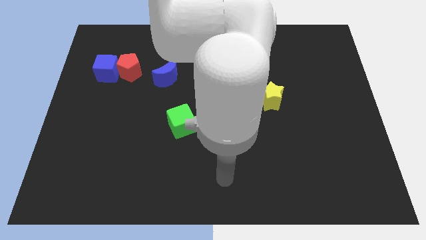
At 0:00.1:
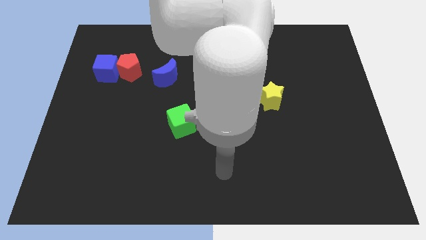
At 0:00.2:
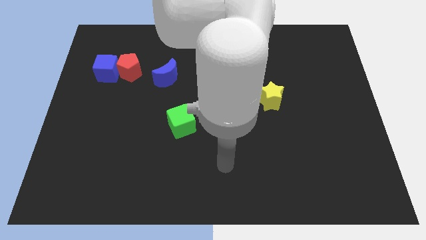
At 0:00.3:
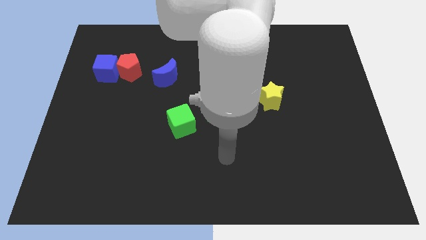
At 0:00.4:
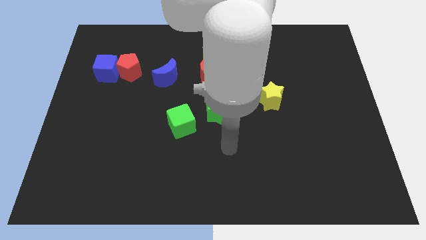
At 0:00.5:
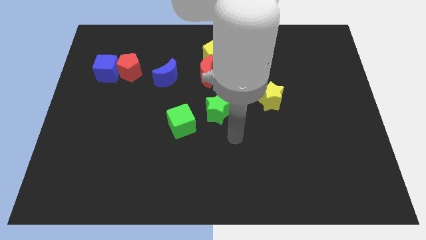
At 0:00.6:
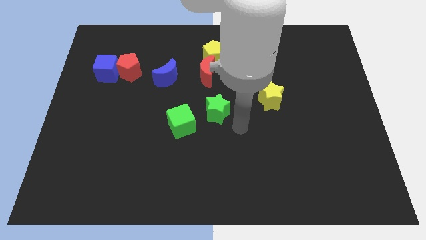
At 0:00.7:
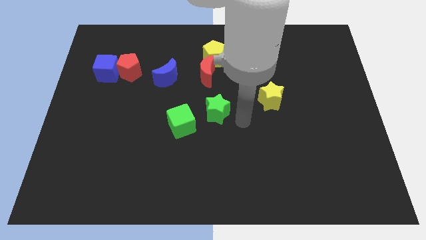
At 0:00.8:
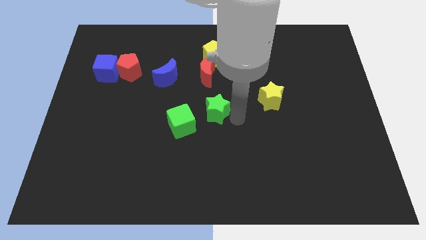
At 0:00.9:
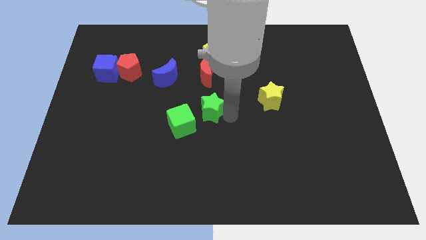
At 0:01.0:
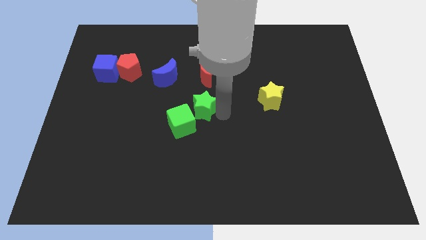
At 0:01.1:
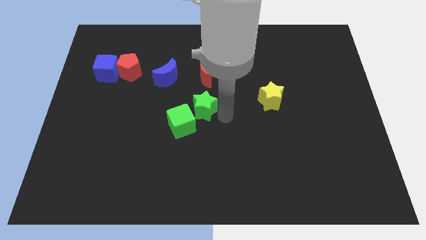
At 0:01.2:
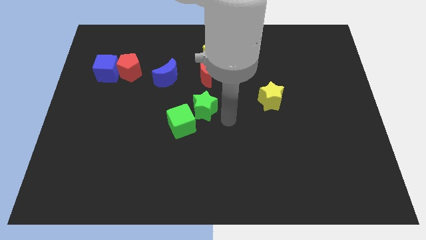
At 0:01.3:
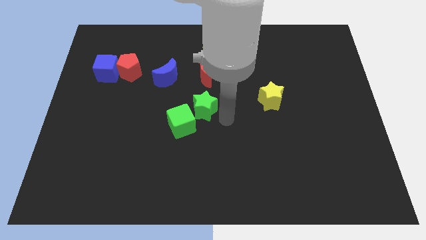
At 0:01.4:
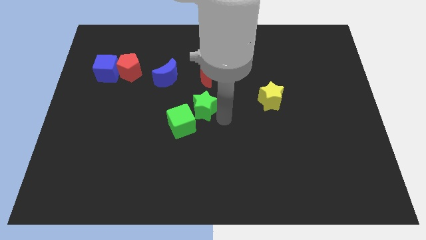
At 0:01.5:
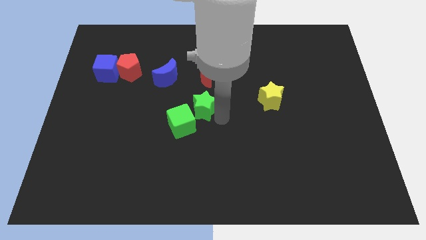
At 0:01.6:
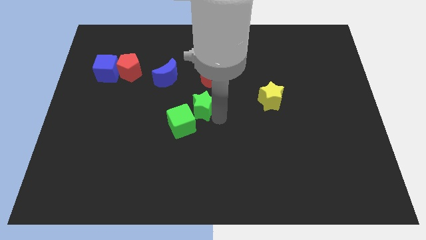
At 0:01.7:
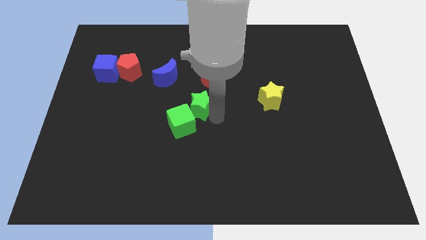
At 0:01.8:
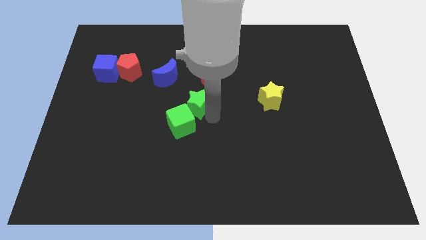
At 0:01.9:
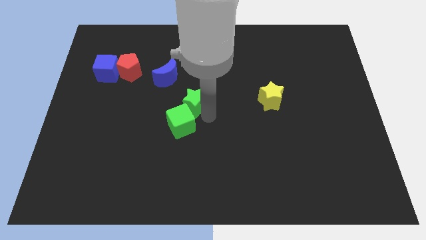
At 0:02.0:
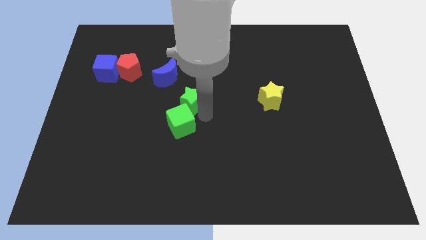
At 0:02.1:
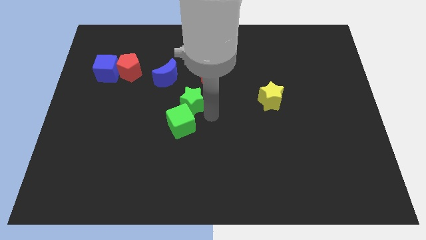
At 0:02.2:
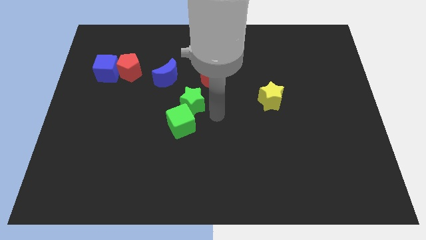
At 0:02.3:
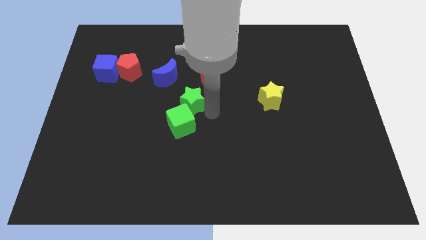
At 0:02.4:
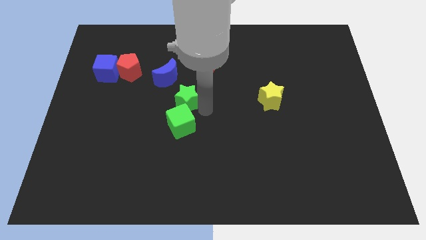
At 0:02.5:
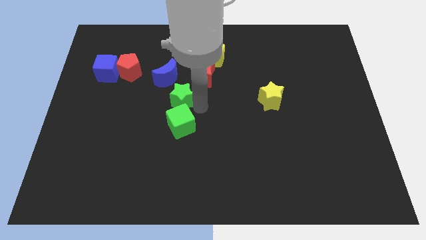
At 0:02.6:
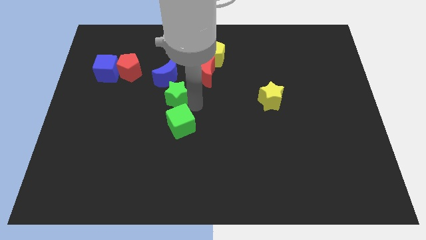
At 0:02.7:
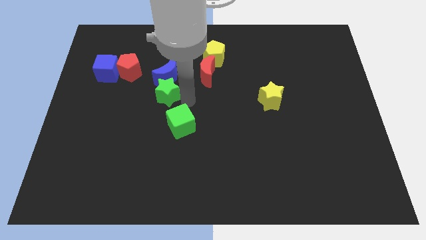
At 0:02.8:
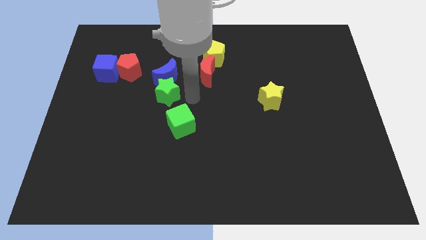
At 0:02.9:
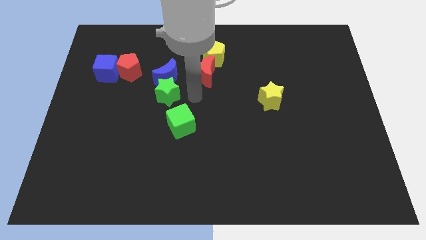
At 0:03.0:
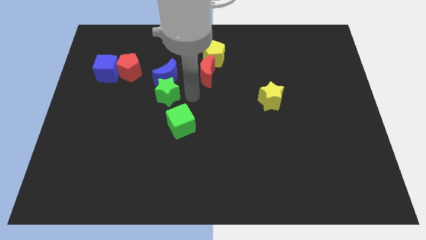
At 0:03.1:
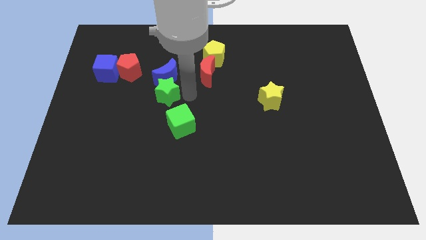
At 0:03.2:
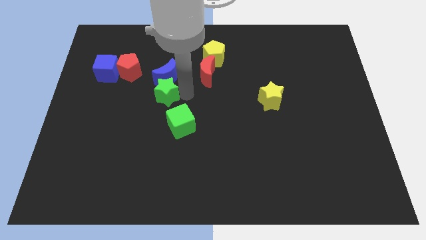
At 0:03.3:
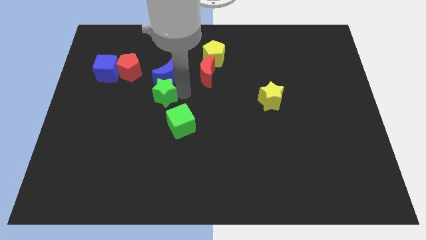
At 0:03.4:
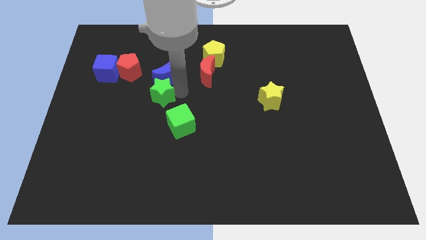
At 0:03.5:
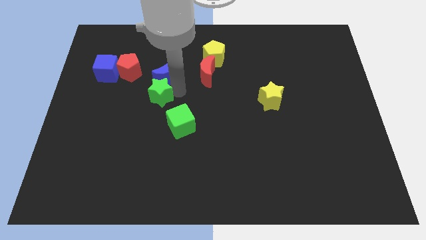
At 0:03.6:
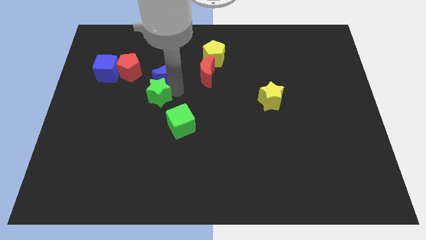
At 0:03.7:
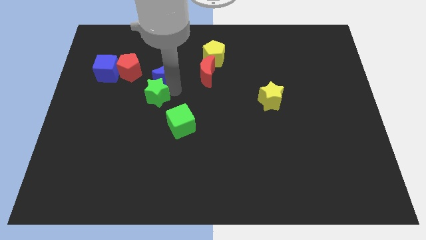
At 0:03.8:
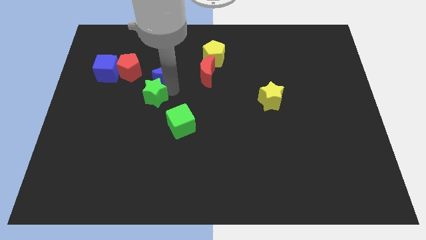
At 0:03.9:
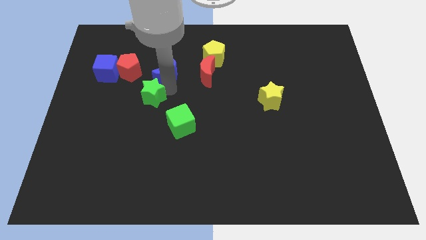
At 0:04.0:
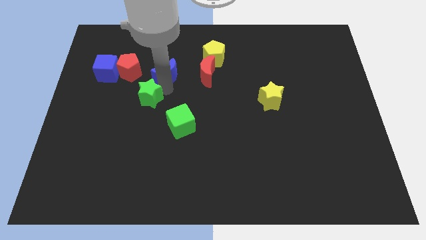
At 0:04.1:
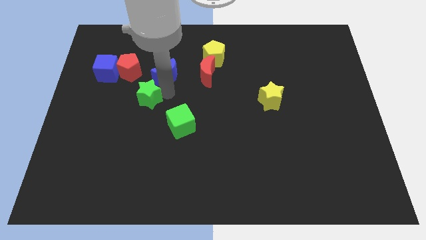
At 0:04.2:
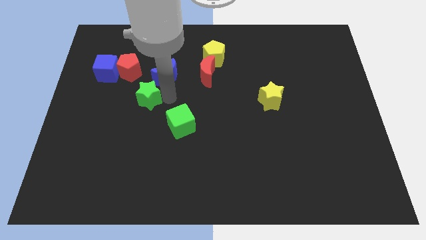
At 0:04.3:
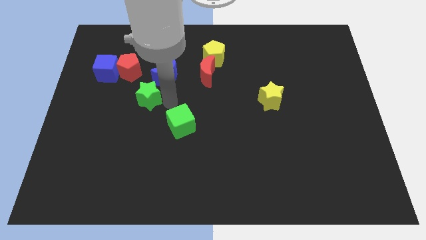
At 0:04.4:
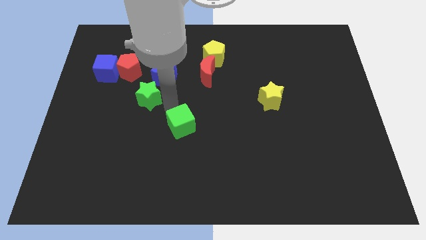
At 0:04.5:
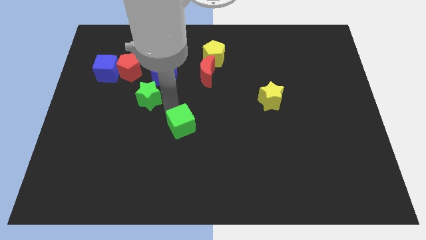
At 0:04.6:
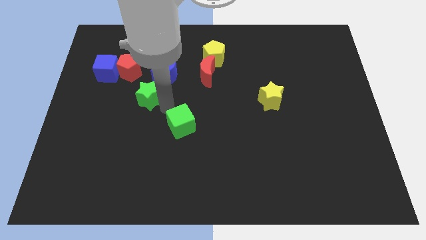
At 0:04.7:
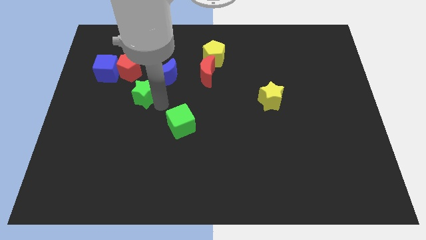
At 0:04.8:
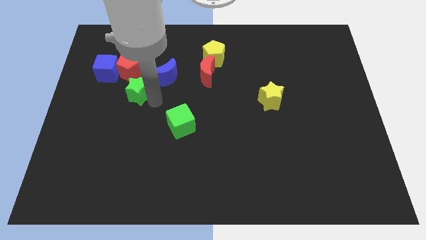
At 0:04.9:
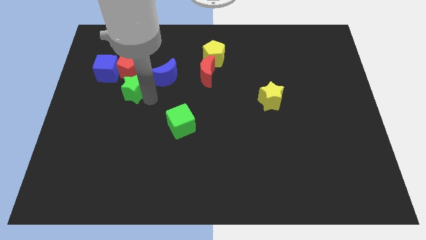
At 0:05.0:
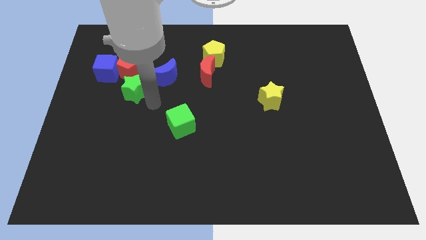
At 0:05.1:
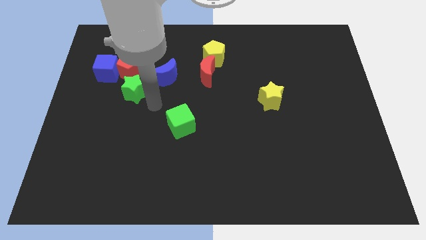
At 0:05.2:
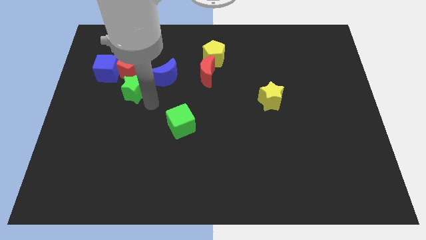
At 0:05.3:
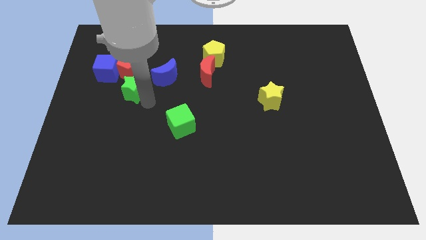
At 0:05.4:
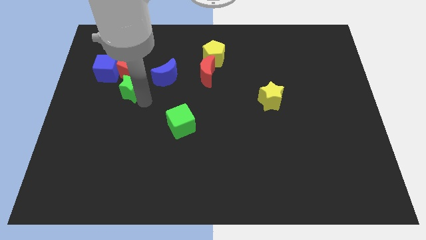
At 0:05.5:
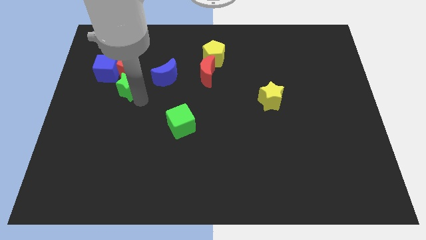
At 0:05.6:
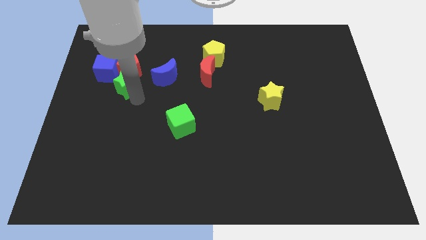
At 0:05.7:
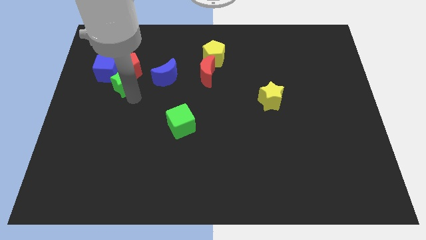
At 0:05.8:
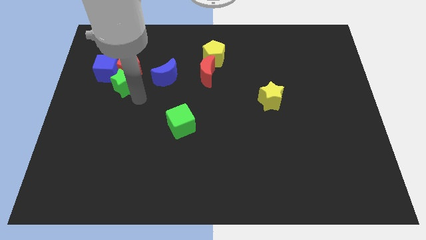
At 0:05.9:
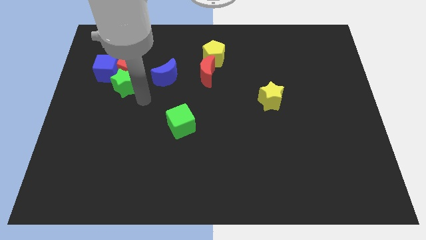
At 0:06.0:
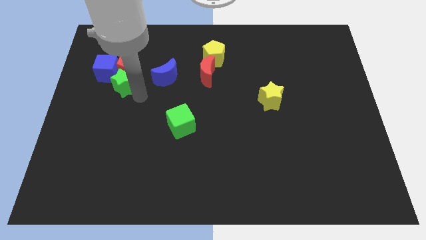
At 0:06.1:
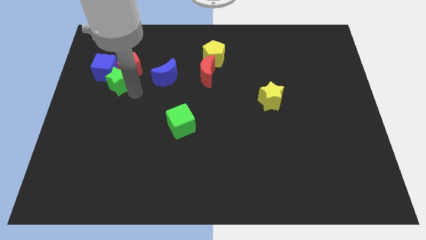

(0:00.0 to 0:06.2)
put the green star next to the blue cube

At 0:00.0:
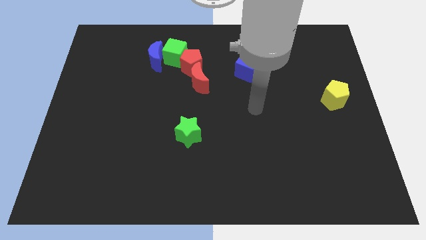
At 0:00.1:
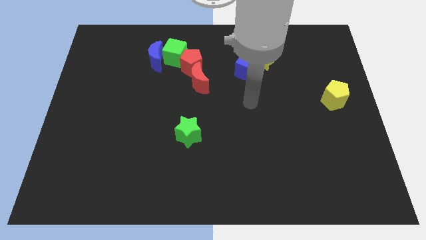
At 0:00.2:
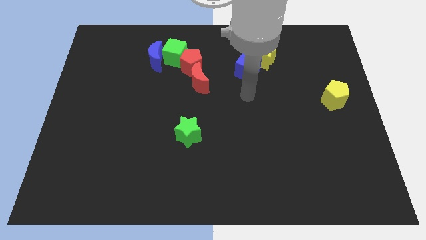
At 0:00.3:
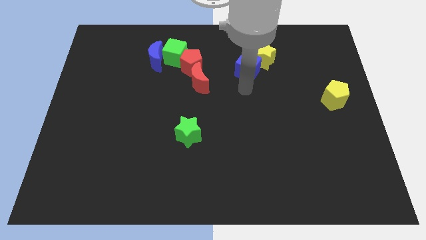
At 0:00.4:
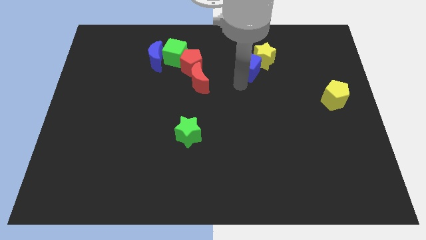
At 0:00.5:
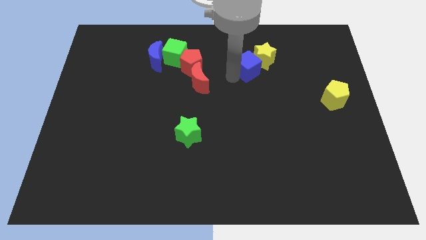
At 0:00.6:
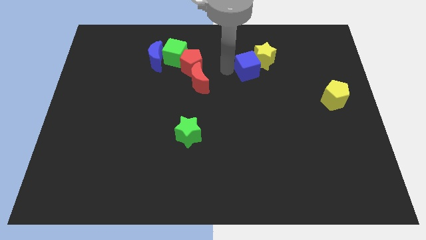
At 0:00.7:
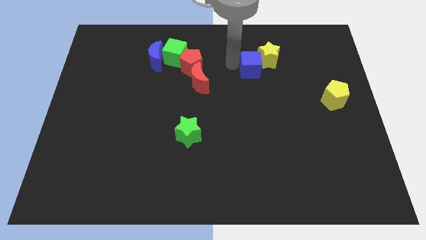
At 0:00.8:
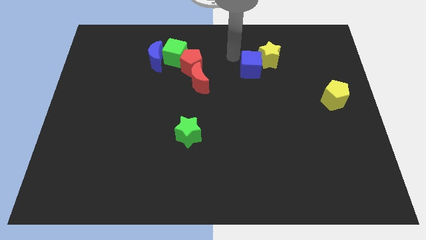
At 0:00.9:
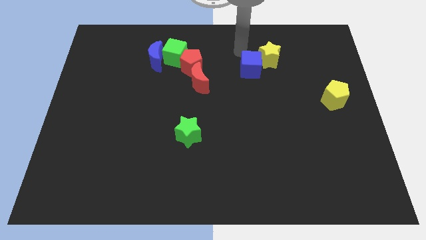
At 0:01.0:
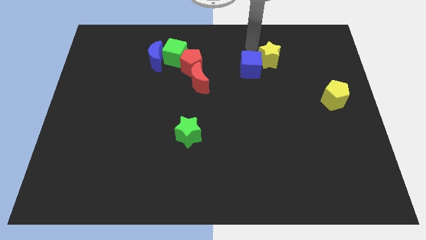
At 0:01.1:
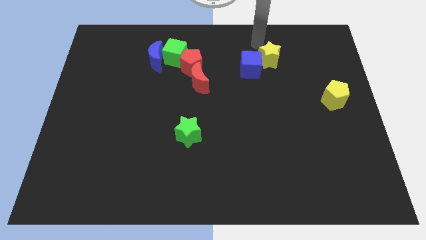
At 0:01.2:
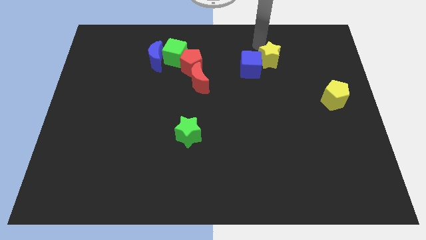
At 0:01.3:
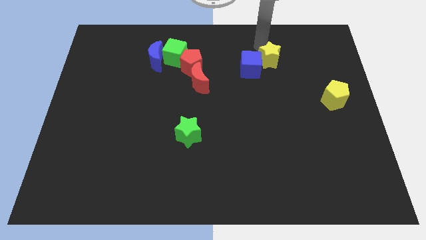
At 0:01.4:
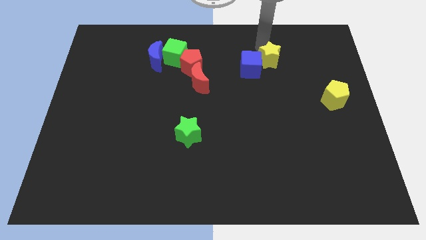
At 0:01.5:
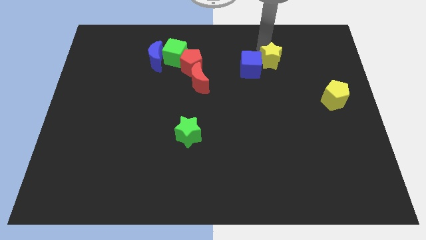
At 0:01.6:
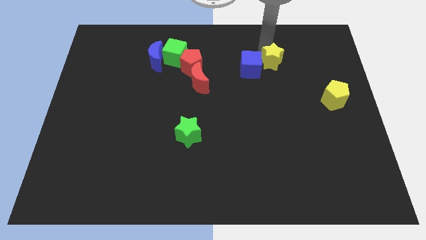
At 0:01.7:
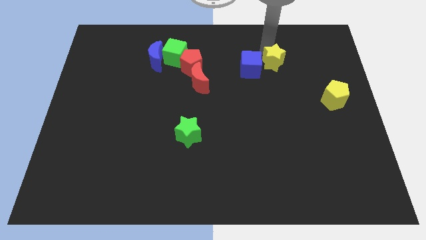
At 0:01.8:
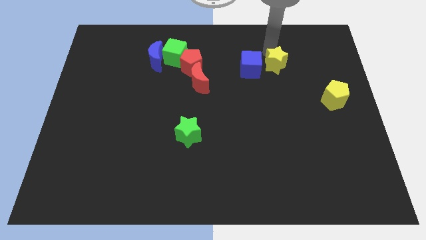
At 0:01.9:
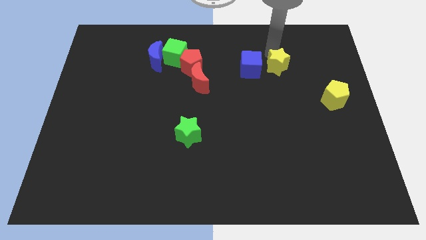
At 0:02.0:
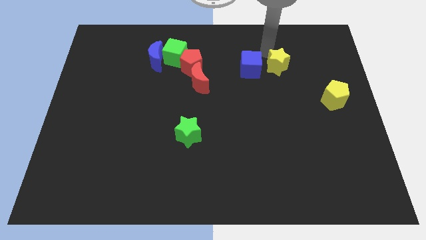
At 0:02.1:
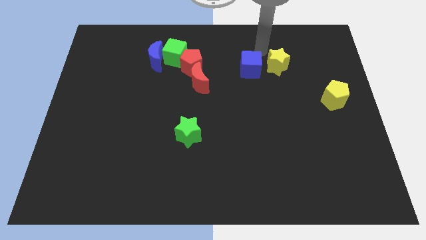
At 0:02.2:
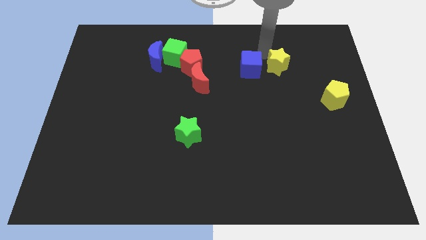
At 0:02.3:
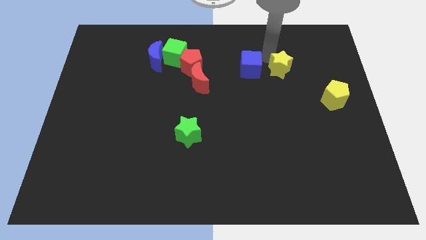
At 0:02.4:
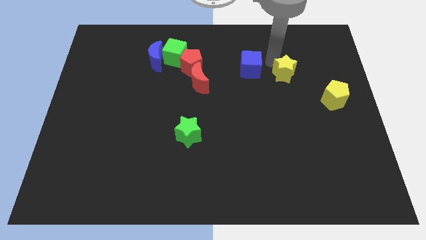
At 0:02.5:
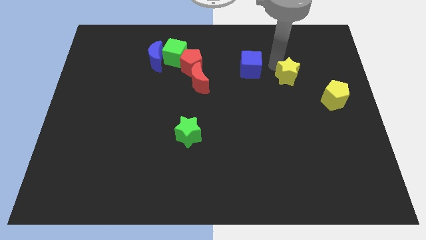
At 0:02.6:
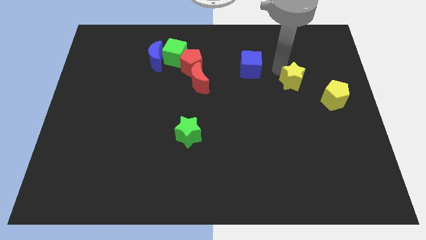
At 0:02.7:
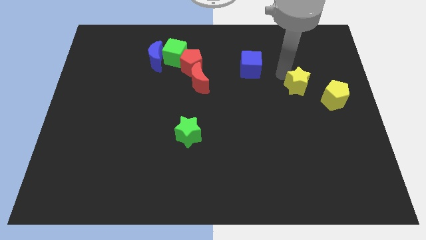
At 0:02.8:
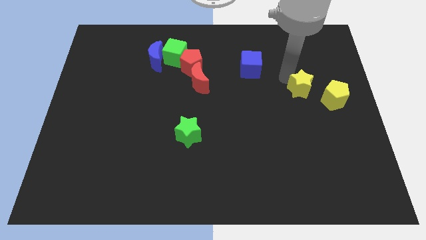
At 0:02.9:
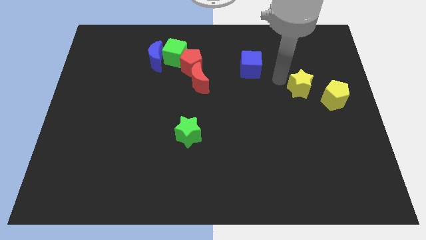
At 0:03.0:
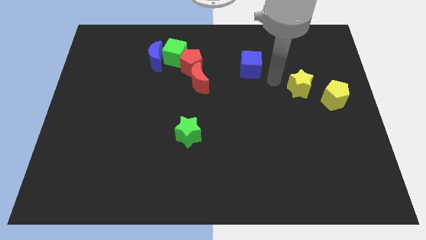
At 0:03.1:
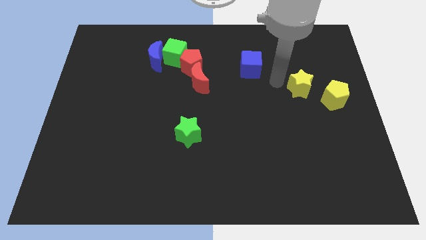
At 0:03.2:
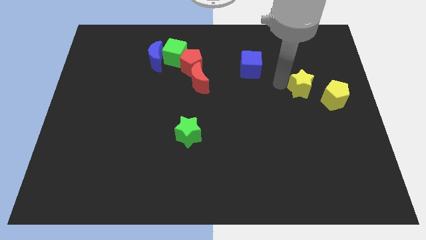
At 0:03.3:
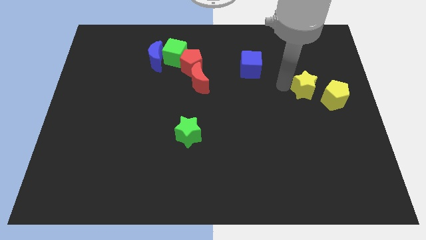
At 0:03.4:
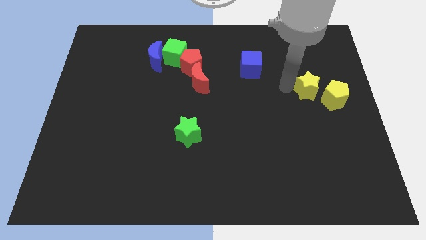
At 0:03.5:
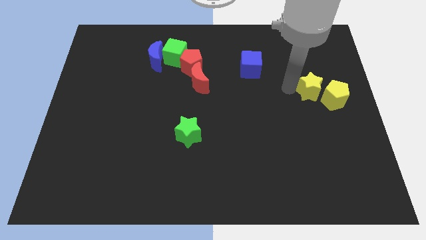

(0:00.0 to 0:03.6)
put the yellow star towards the yellow pentagon
